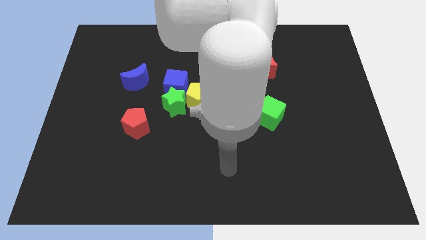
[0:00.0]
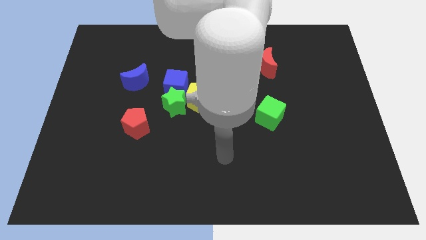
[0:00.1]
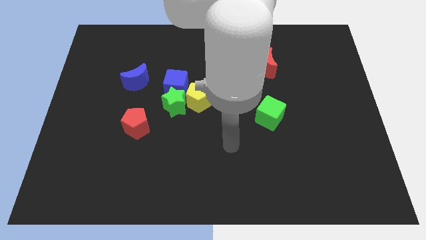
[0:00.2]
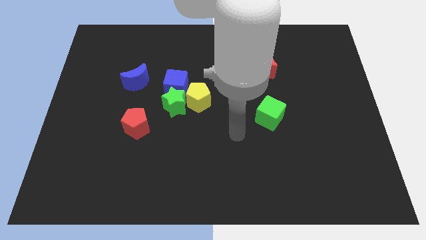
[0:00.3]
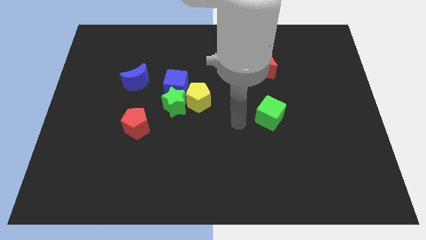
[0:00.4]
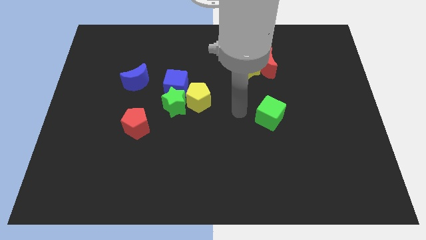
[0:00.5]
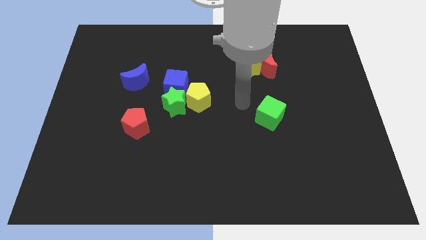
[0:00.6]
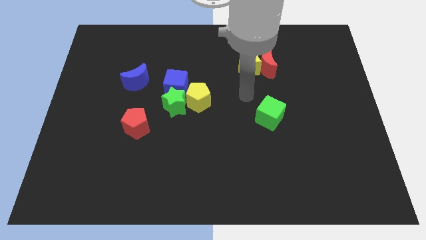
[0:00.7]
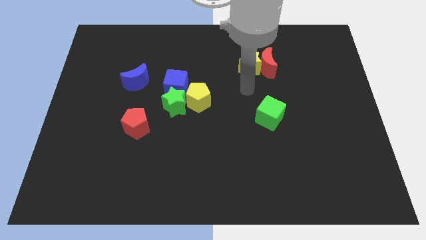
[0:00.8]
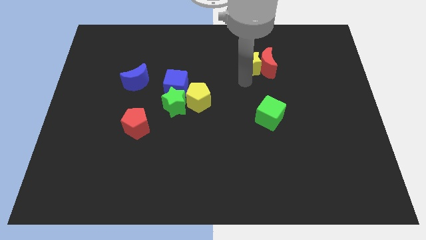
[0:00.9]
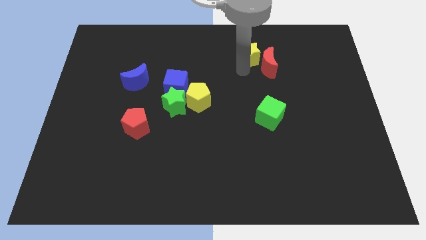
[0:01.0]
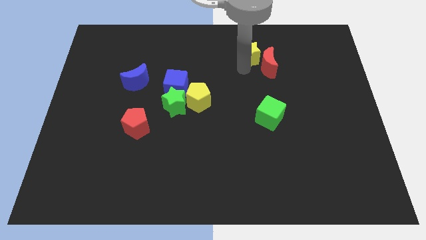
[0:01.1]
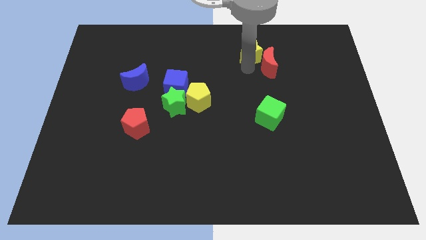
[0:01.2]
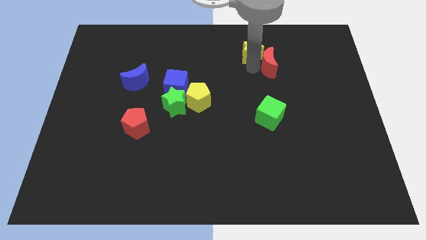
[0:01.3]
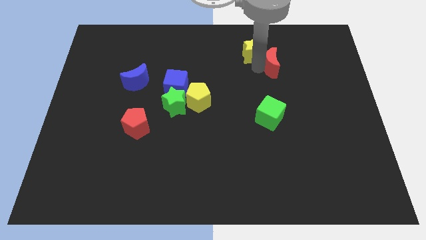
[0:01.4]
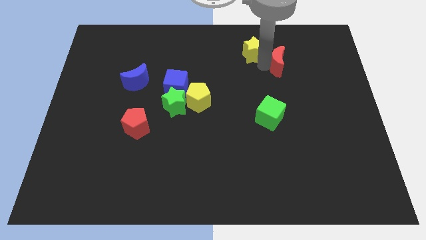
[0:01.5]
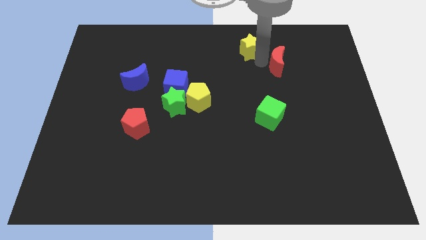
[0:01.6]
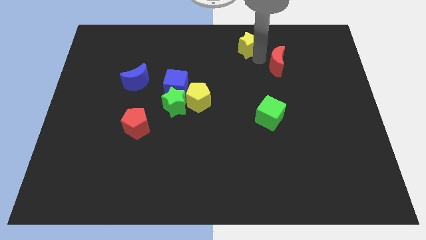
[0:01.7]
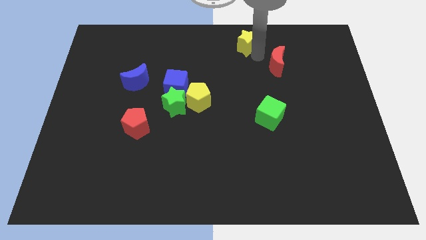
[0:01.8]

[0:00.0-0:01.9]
move the red moon away from the yellow star

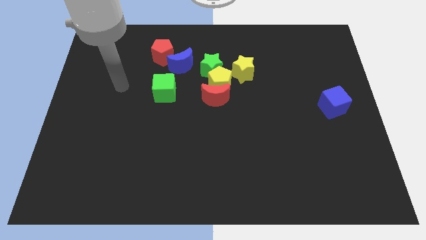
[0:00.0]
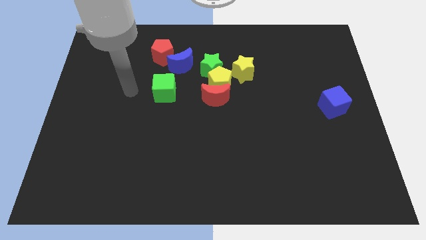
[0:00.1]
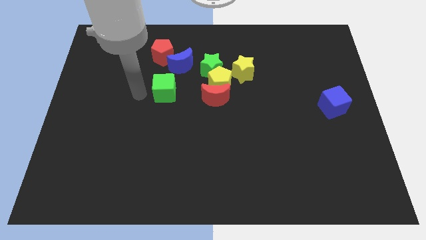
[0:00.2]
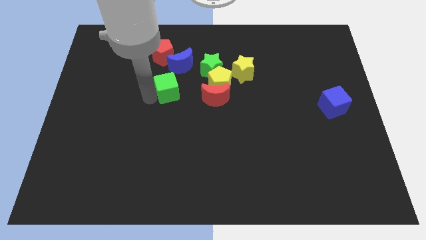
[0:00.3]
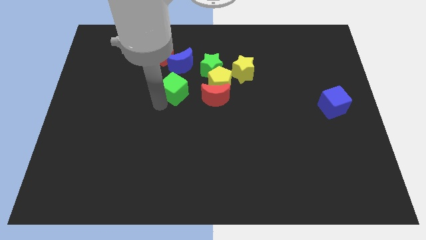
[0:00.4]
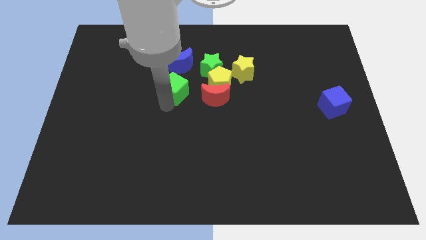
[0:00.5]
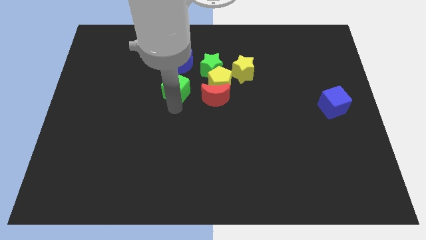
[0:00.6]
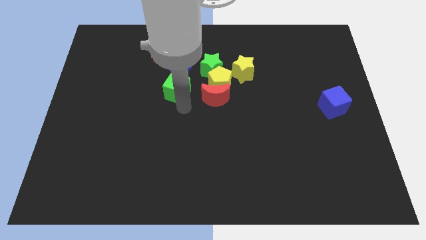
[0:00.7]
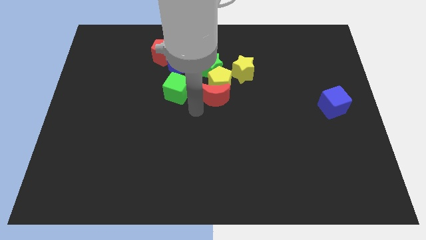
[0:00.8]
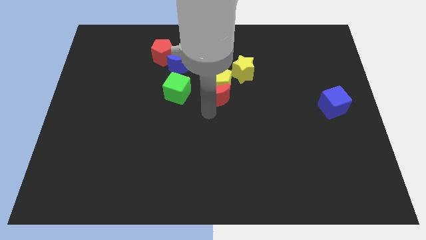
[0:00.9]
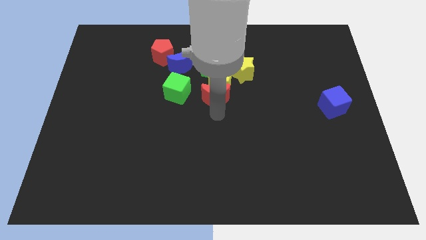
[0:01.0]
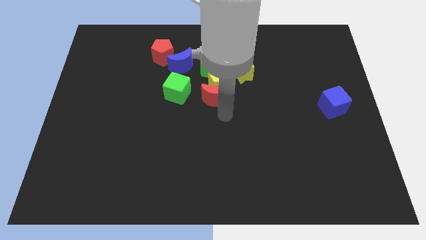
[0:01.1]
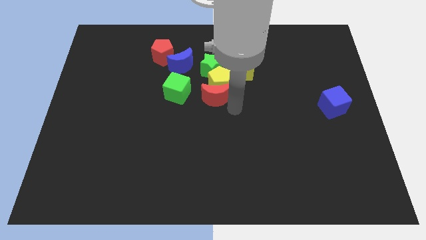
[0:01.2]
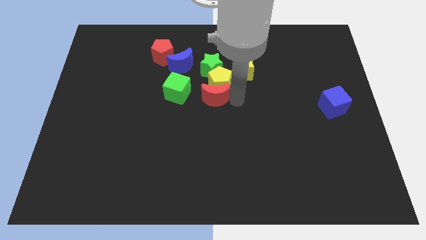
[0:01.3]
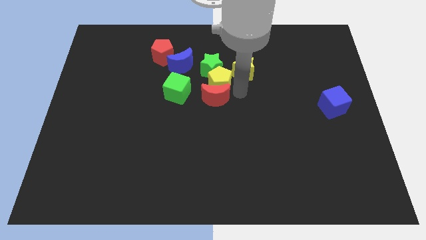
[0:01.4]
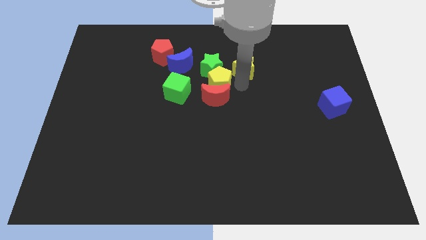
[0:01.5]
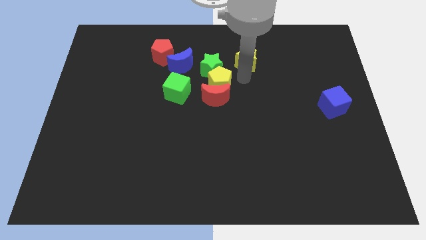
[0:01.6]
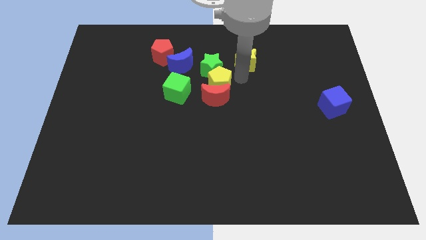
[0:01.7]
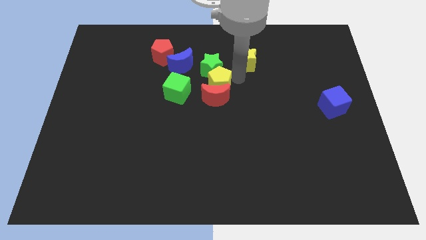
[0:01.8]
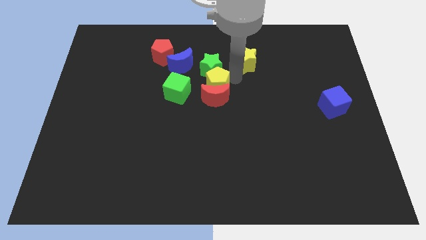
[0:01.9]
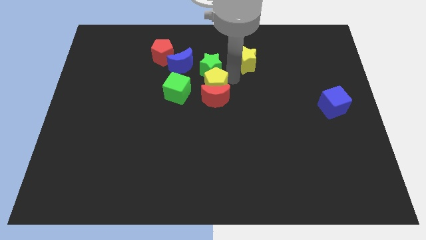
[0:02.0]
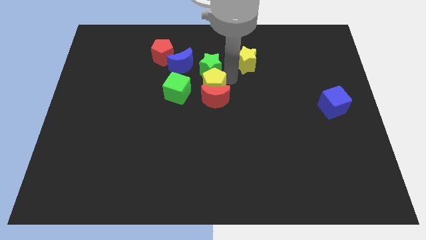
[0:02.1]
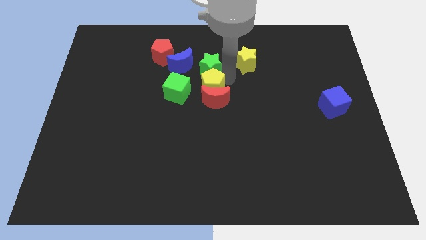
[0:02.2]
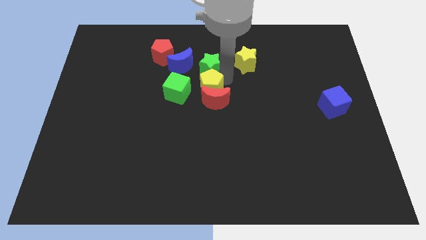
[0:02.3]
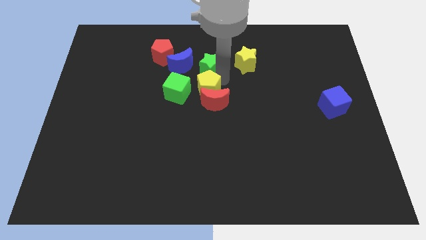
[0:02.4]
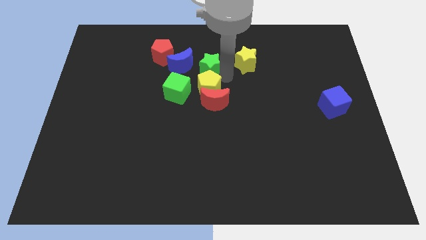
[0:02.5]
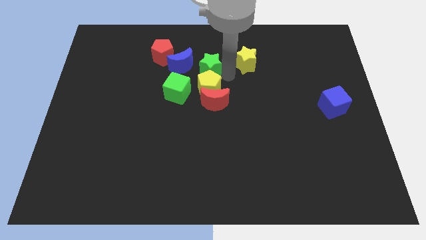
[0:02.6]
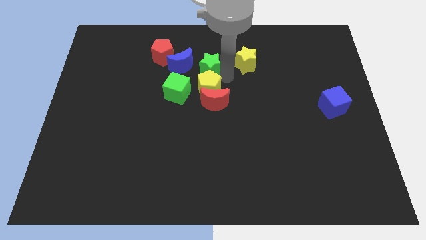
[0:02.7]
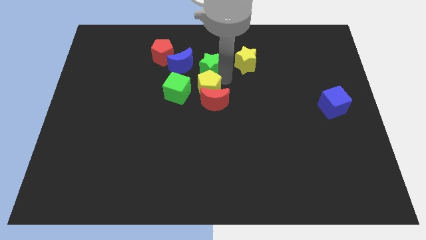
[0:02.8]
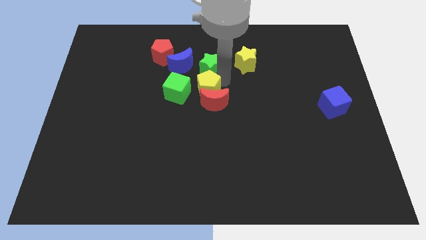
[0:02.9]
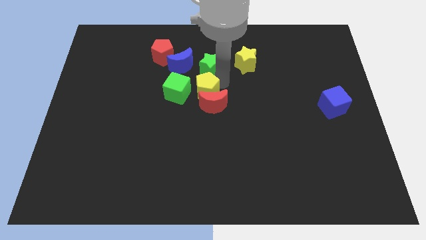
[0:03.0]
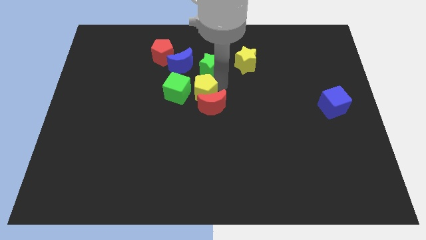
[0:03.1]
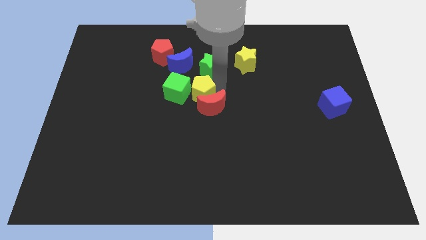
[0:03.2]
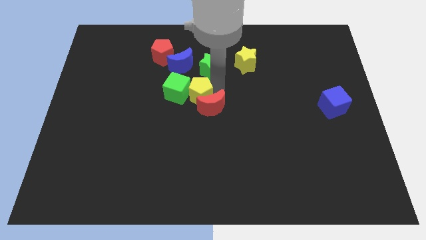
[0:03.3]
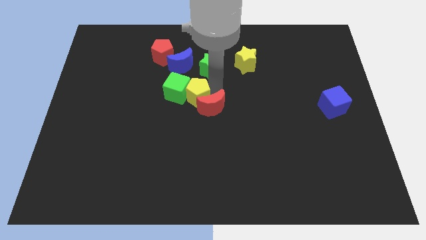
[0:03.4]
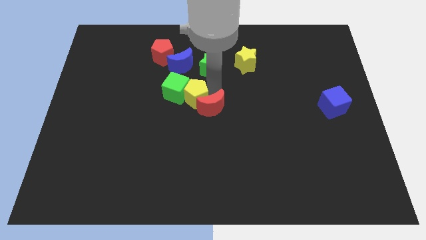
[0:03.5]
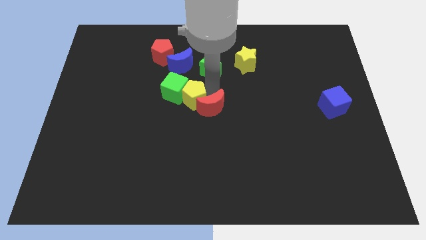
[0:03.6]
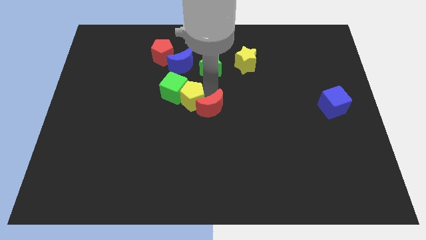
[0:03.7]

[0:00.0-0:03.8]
separate the yellow pentagon from the clump

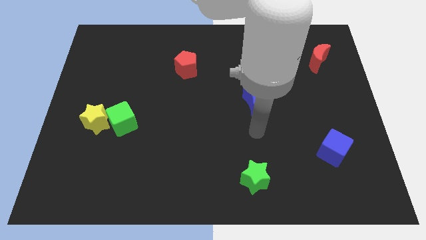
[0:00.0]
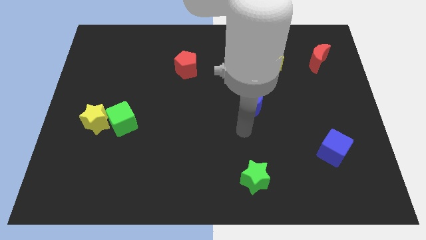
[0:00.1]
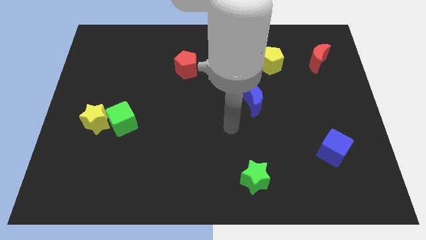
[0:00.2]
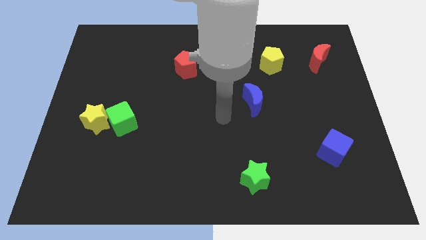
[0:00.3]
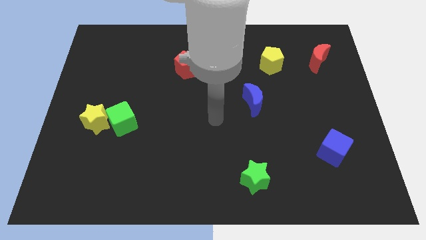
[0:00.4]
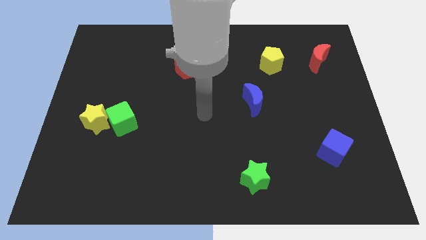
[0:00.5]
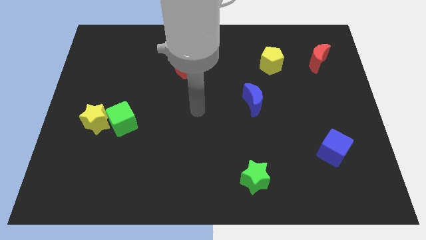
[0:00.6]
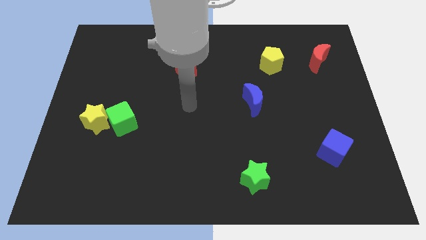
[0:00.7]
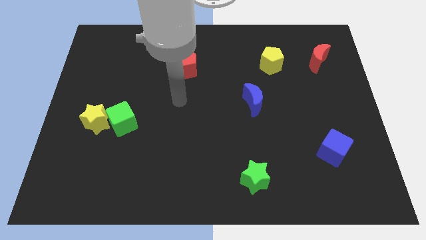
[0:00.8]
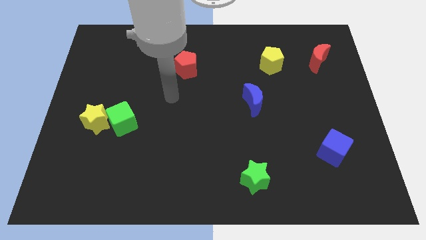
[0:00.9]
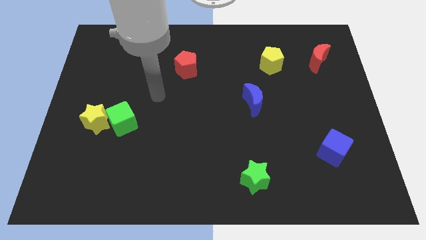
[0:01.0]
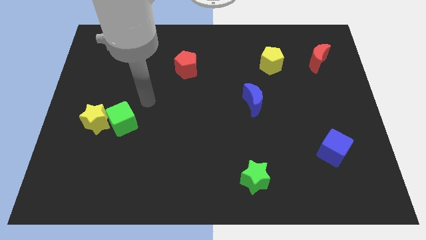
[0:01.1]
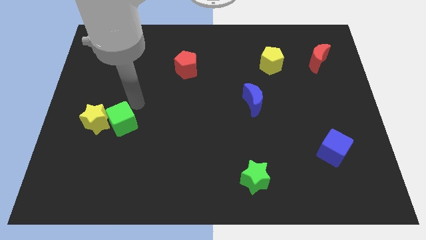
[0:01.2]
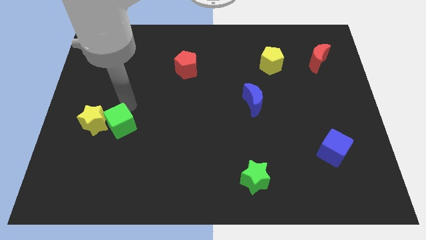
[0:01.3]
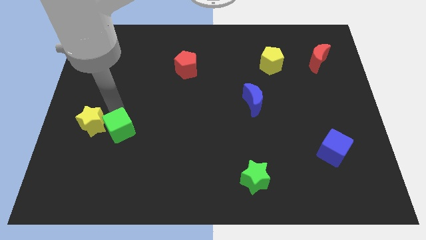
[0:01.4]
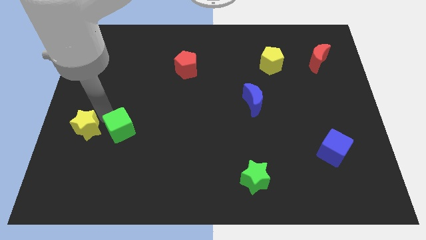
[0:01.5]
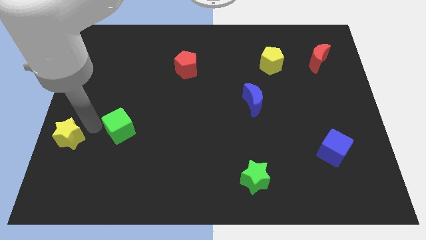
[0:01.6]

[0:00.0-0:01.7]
separate the green cube from the yellow star

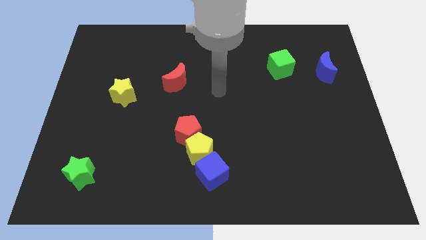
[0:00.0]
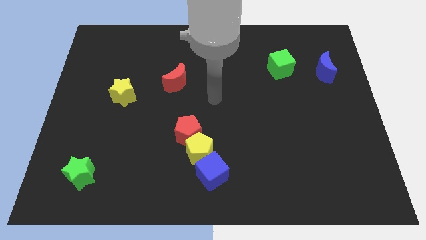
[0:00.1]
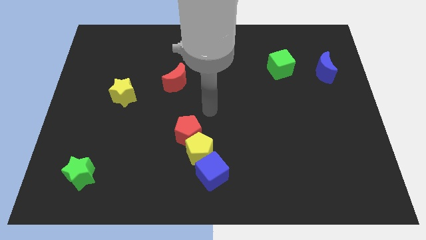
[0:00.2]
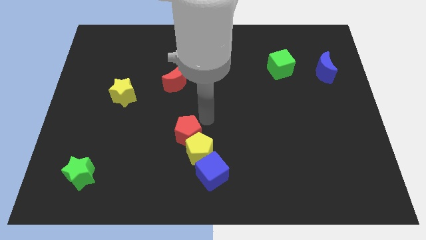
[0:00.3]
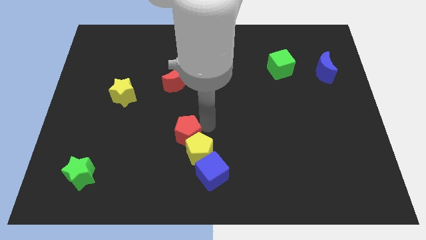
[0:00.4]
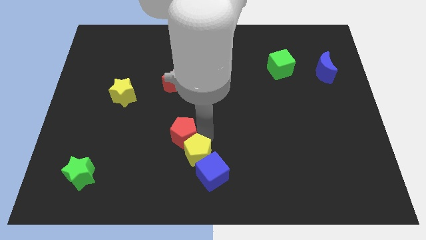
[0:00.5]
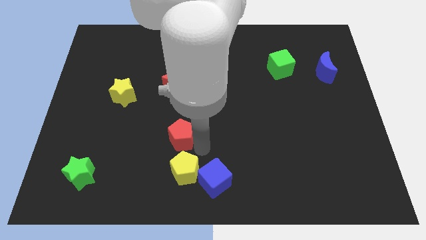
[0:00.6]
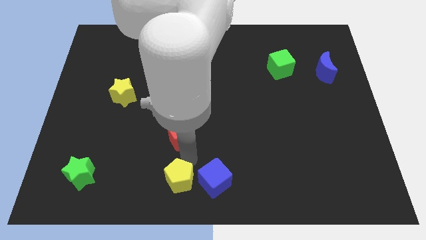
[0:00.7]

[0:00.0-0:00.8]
separate the red pentagon from the yellow pentagon

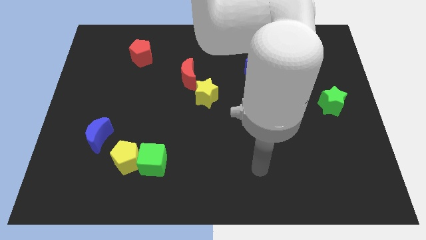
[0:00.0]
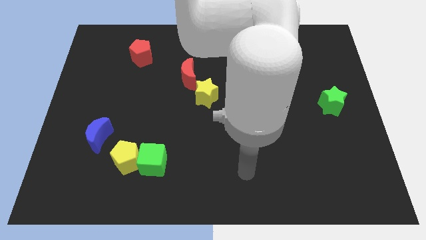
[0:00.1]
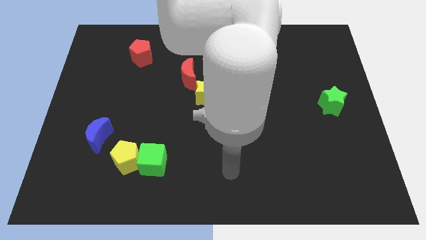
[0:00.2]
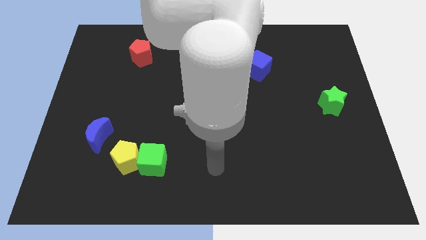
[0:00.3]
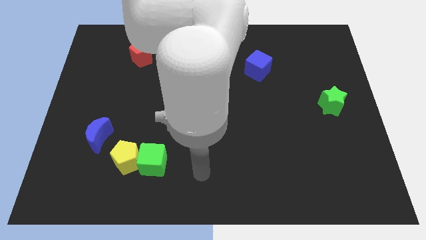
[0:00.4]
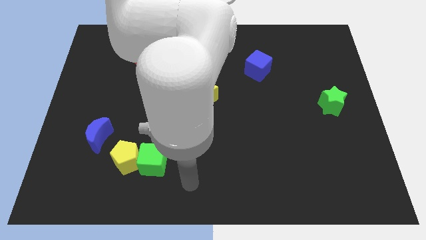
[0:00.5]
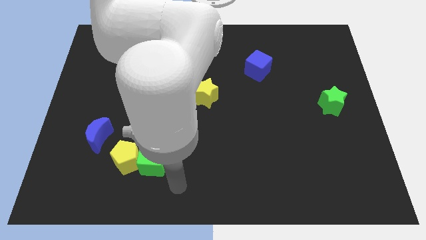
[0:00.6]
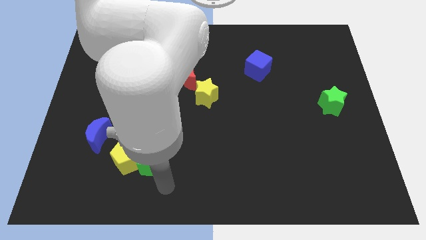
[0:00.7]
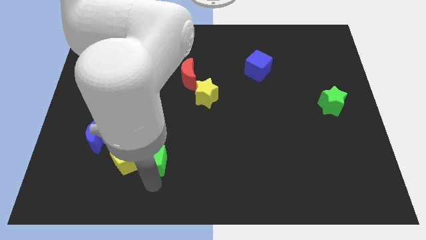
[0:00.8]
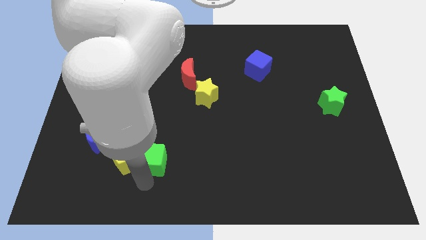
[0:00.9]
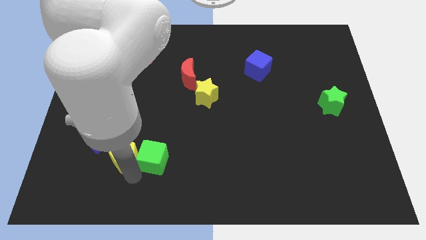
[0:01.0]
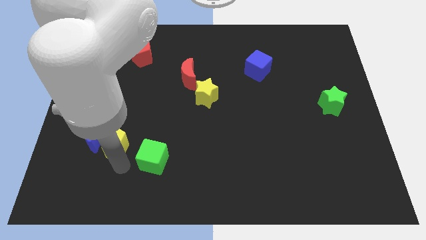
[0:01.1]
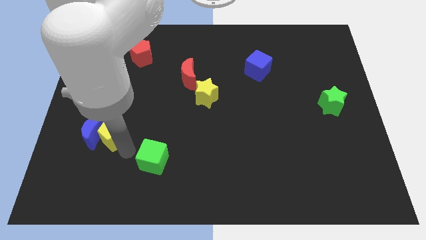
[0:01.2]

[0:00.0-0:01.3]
pull the green cube apart from the yellow pentagon
